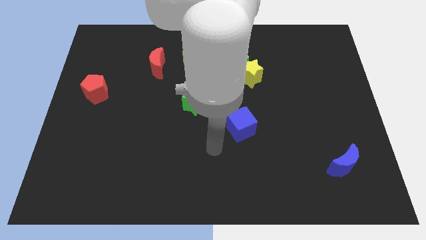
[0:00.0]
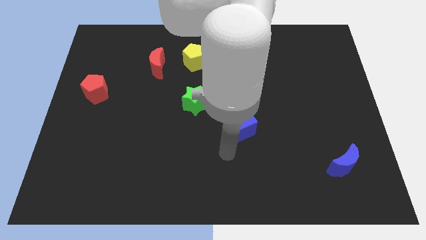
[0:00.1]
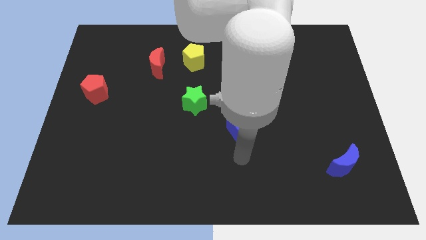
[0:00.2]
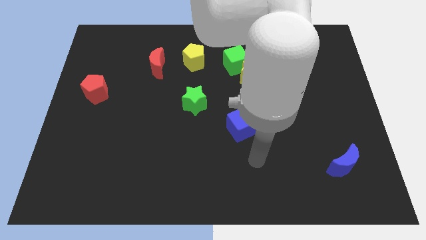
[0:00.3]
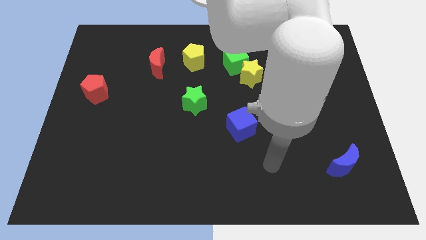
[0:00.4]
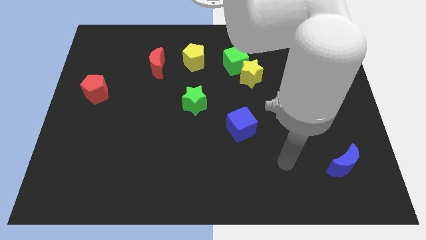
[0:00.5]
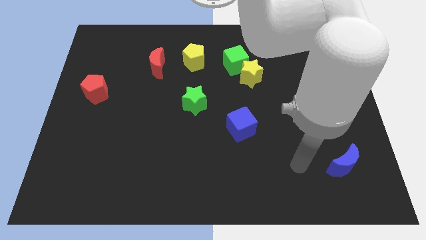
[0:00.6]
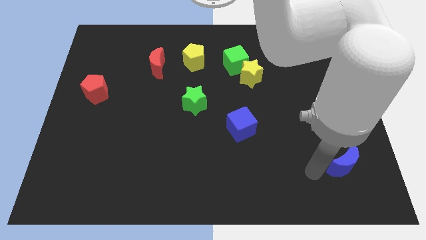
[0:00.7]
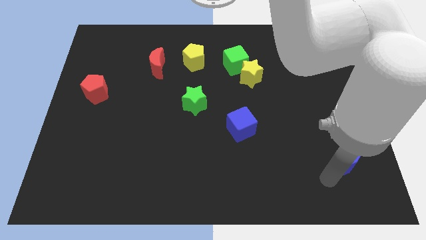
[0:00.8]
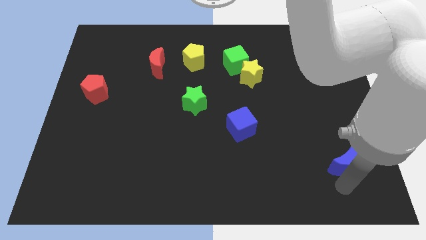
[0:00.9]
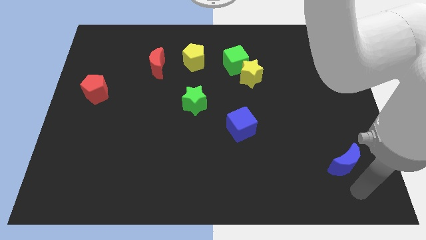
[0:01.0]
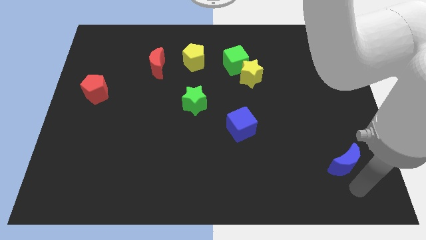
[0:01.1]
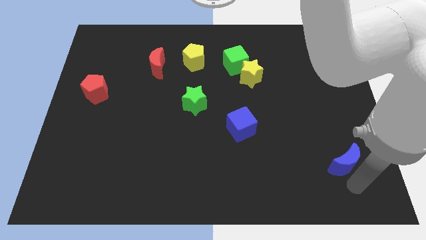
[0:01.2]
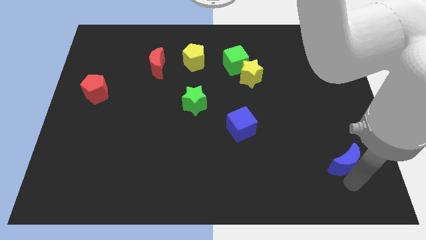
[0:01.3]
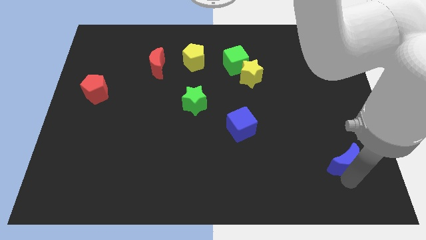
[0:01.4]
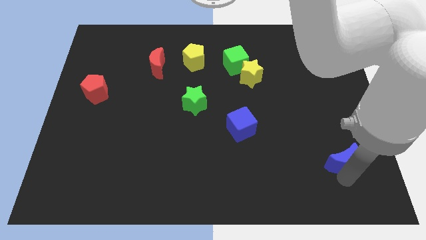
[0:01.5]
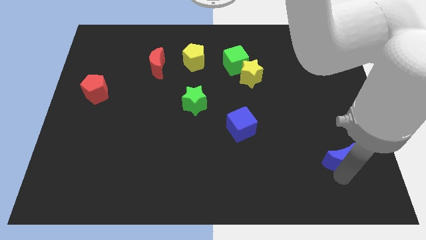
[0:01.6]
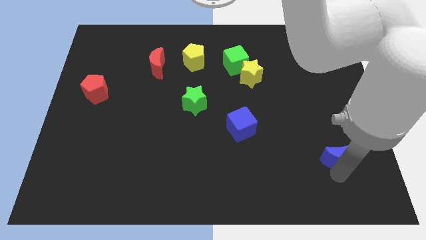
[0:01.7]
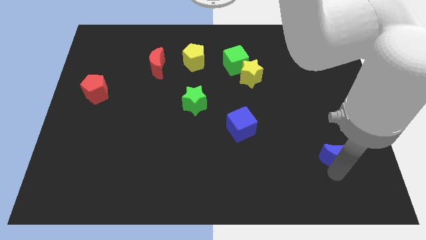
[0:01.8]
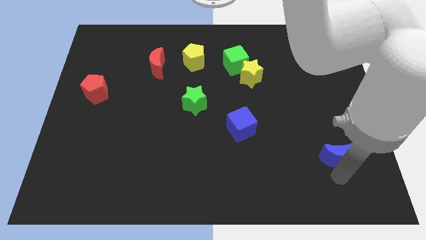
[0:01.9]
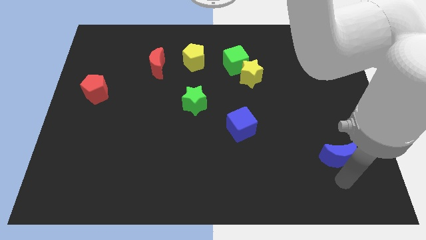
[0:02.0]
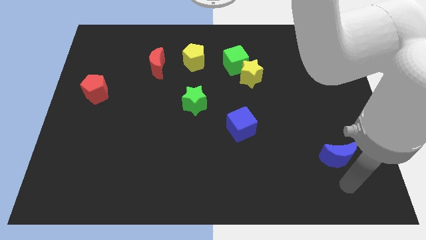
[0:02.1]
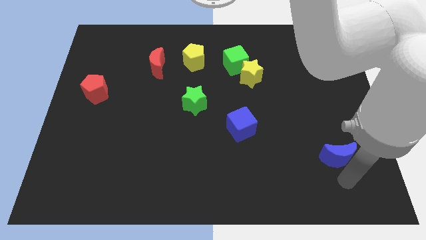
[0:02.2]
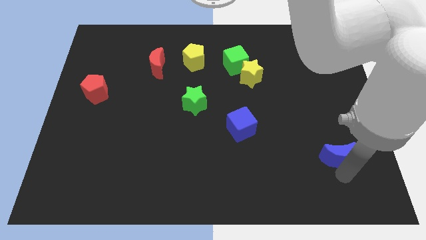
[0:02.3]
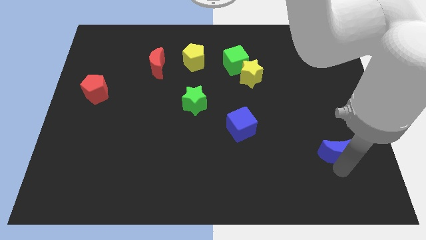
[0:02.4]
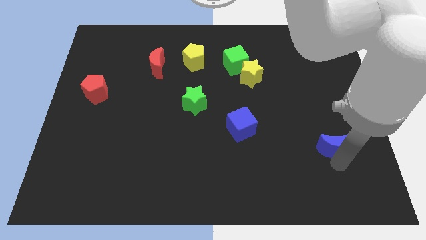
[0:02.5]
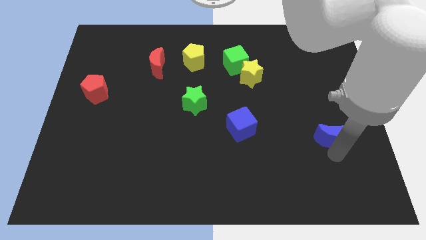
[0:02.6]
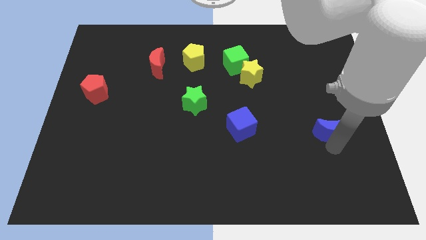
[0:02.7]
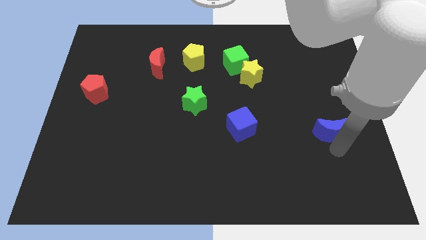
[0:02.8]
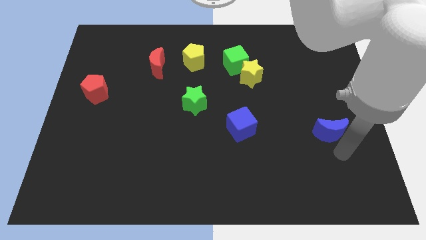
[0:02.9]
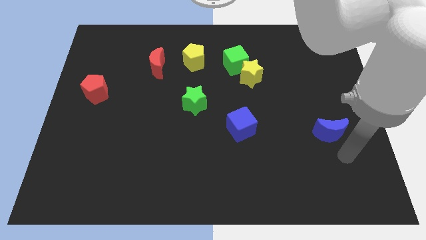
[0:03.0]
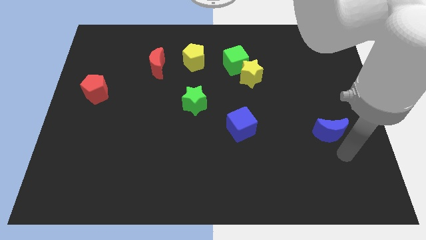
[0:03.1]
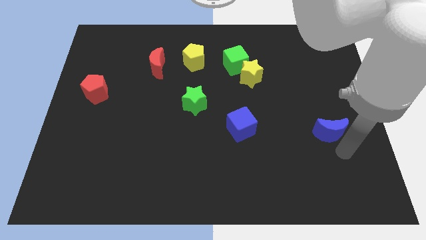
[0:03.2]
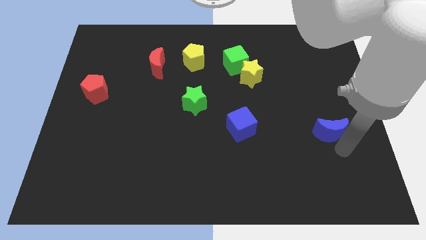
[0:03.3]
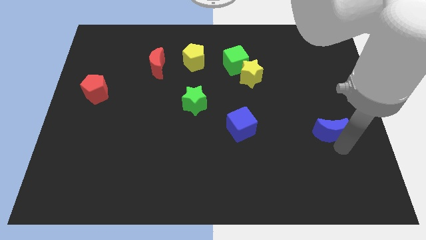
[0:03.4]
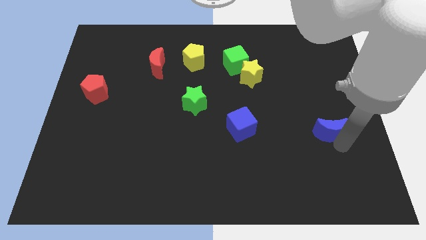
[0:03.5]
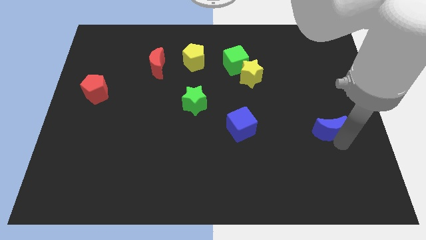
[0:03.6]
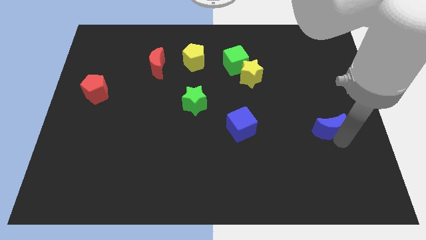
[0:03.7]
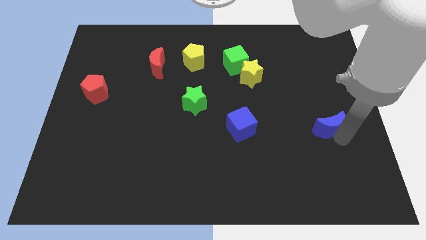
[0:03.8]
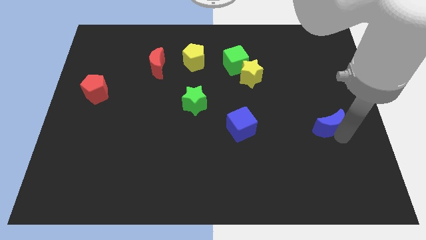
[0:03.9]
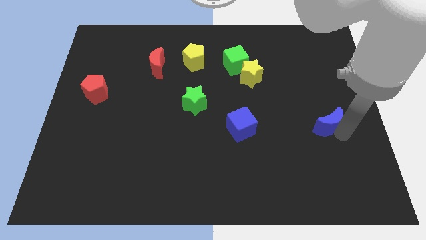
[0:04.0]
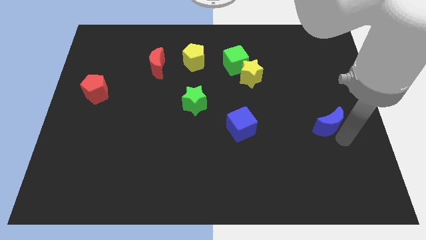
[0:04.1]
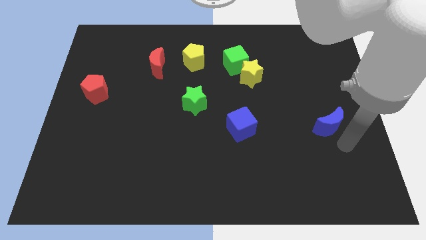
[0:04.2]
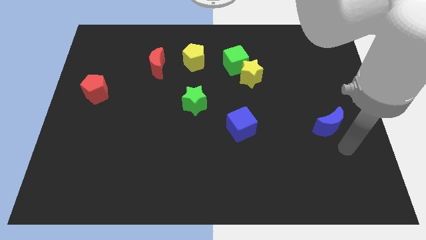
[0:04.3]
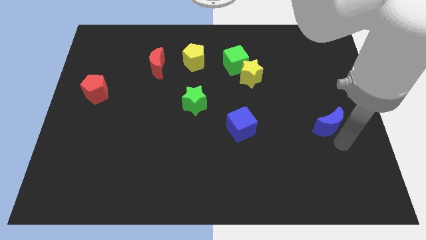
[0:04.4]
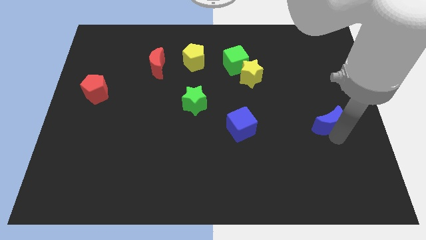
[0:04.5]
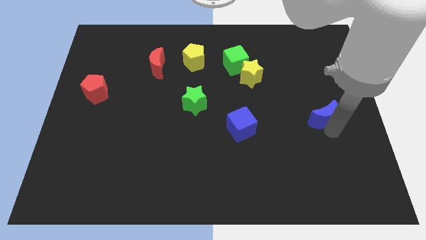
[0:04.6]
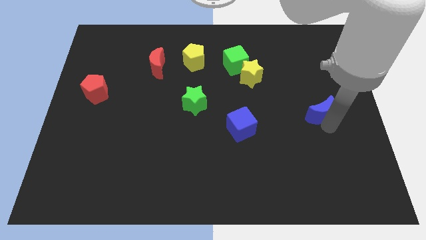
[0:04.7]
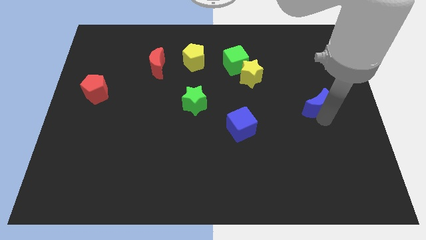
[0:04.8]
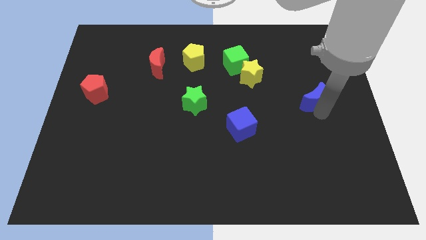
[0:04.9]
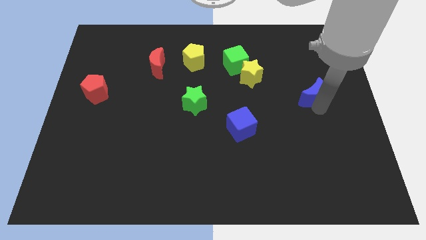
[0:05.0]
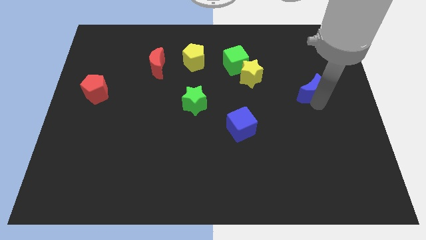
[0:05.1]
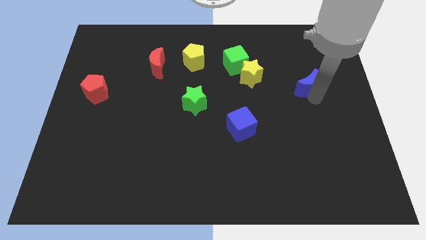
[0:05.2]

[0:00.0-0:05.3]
push the blue moon to the right side of the yellow star

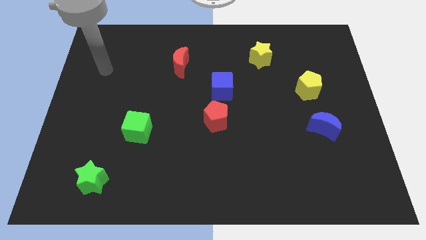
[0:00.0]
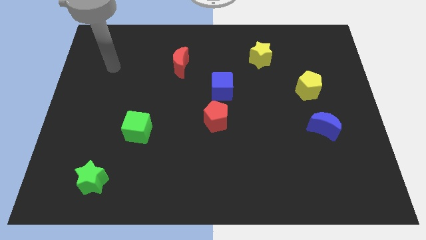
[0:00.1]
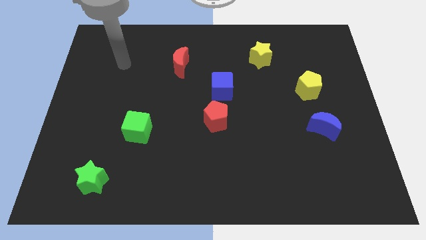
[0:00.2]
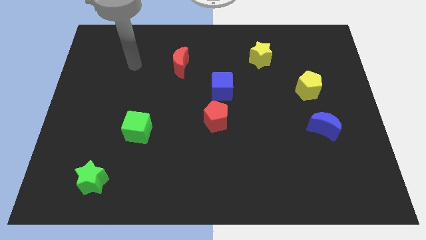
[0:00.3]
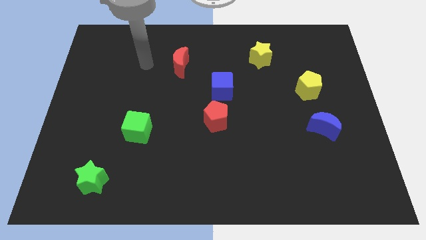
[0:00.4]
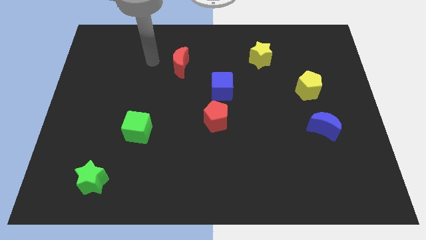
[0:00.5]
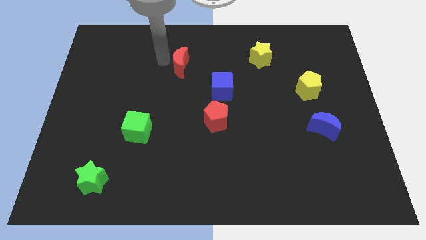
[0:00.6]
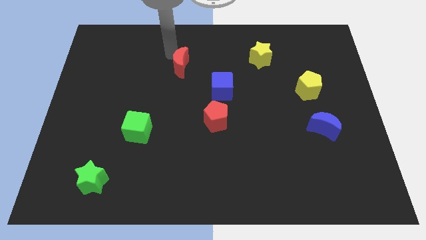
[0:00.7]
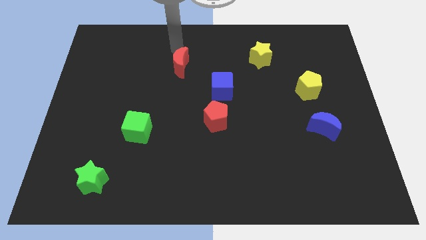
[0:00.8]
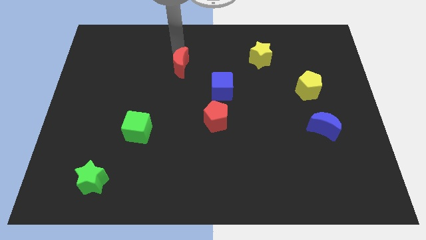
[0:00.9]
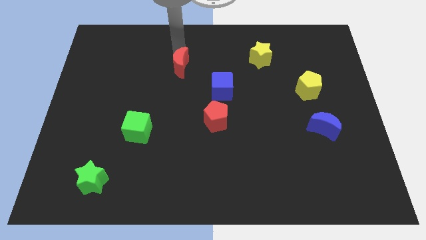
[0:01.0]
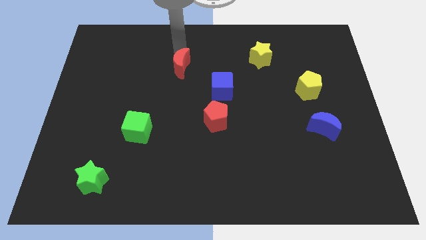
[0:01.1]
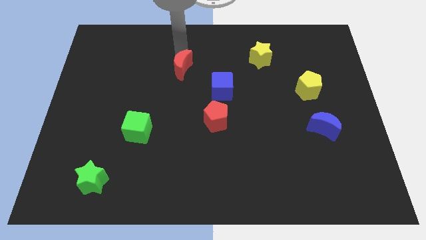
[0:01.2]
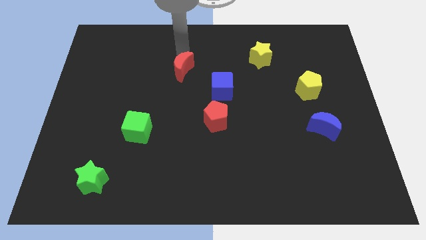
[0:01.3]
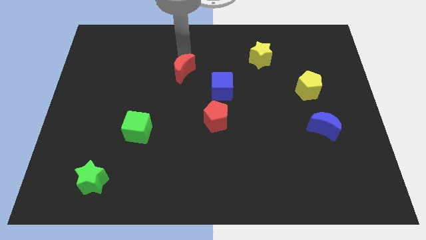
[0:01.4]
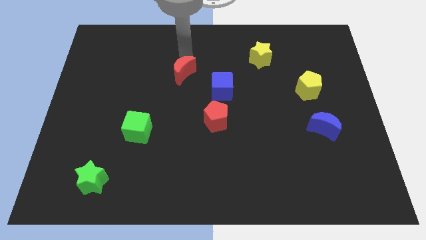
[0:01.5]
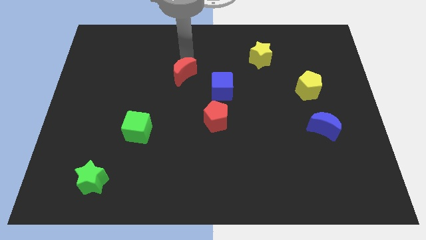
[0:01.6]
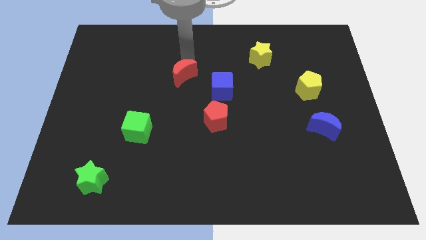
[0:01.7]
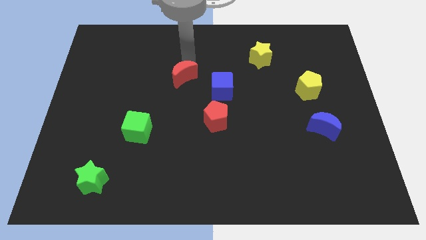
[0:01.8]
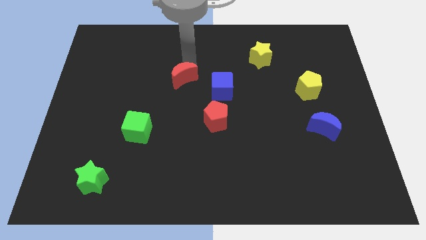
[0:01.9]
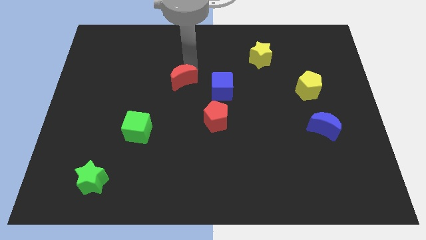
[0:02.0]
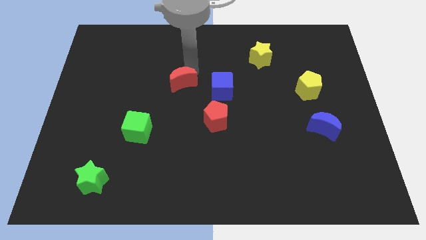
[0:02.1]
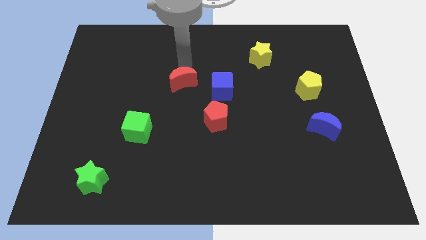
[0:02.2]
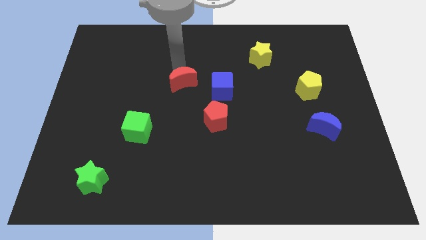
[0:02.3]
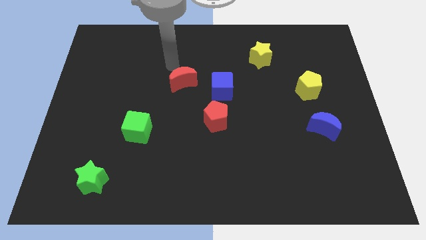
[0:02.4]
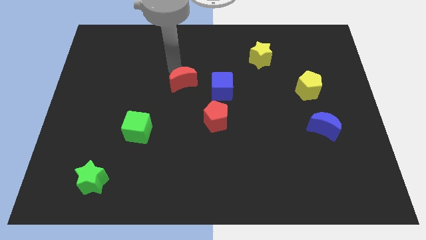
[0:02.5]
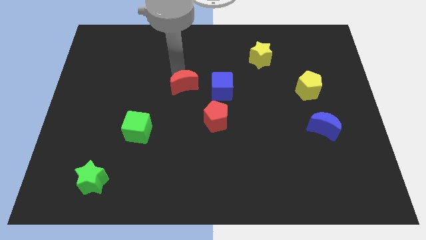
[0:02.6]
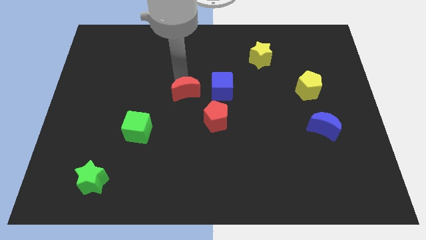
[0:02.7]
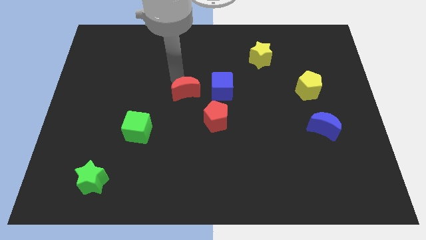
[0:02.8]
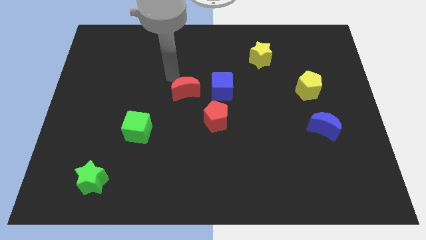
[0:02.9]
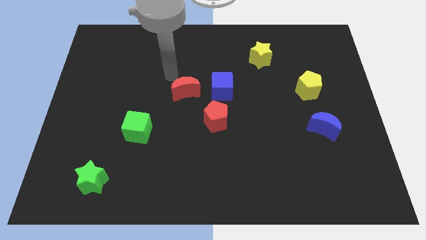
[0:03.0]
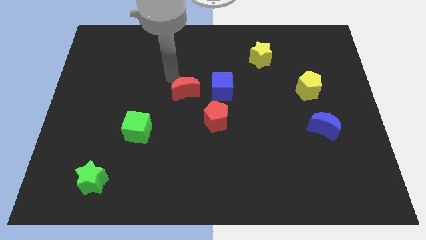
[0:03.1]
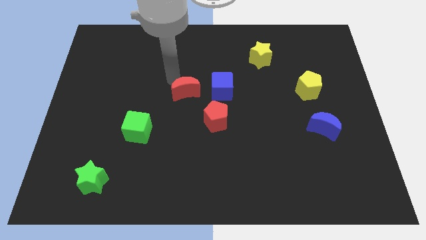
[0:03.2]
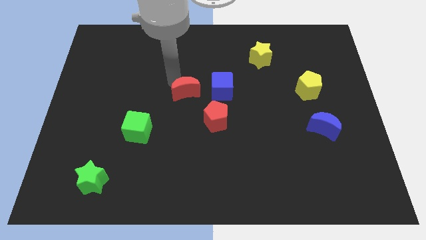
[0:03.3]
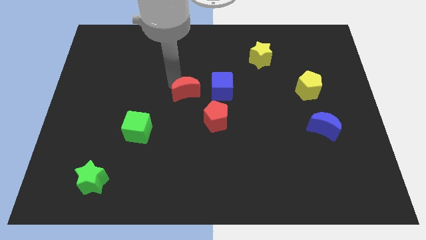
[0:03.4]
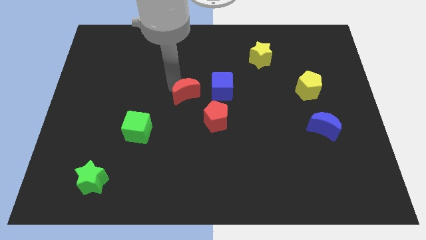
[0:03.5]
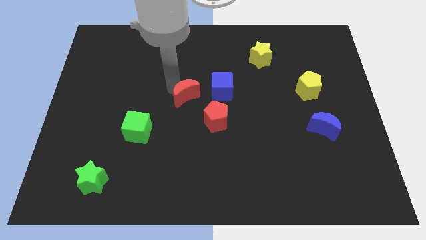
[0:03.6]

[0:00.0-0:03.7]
slide the red moon diagonally down and to the left of the blue cube
